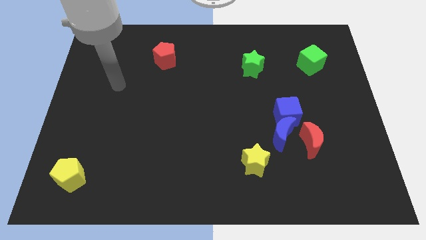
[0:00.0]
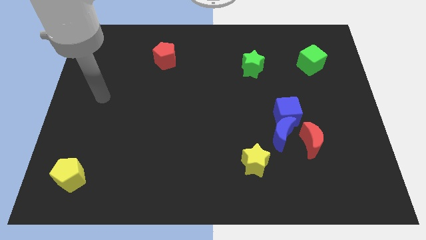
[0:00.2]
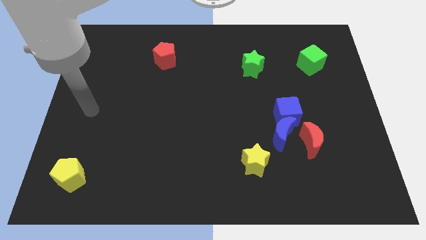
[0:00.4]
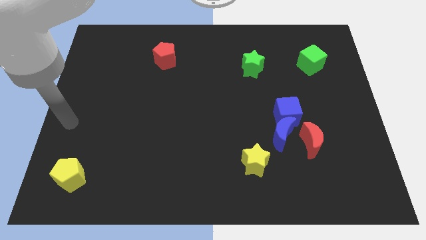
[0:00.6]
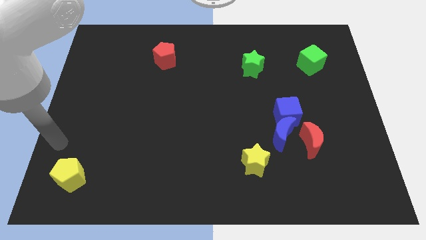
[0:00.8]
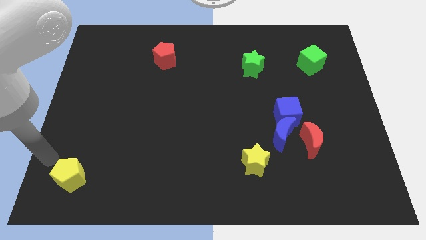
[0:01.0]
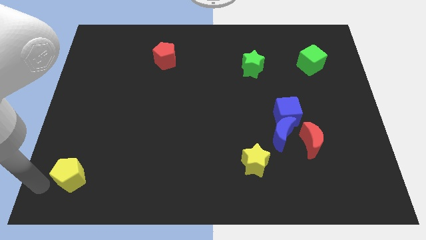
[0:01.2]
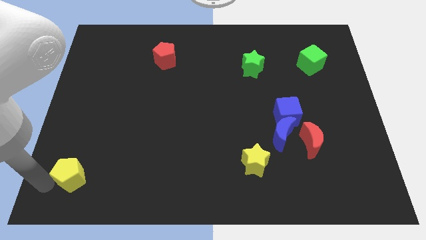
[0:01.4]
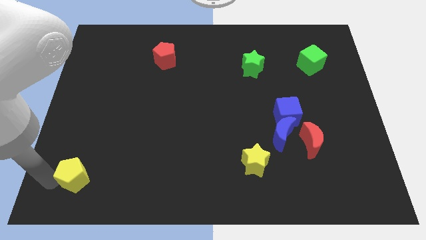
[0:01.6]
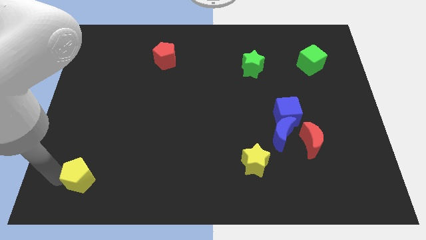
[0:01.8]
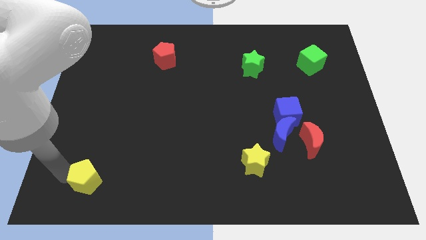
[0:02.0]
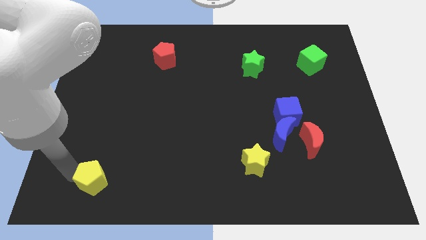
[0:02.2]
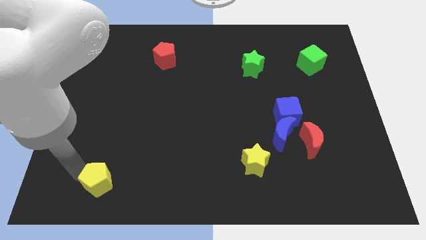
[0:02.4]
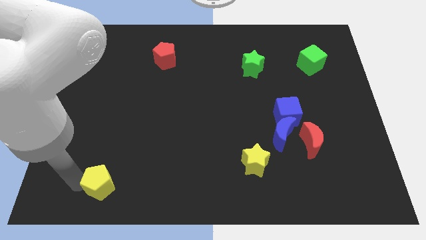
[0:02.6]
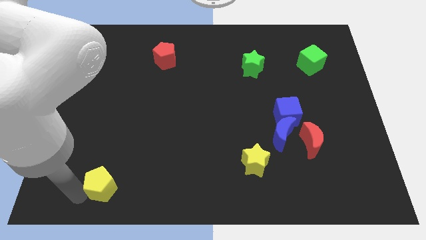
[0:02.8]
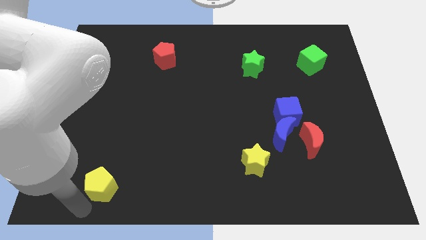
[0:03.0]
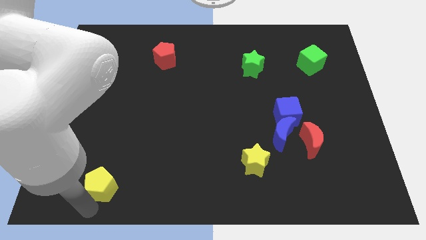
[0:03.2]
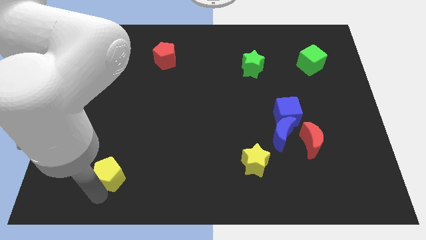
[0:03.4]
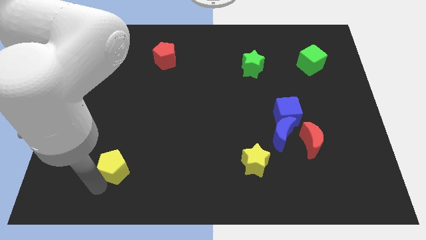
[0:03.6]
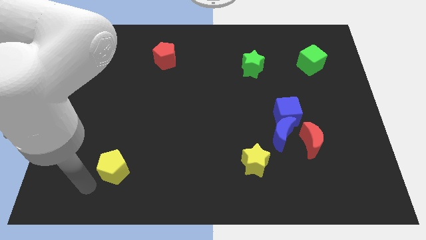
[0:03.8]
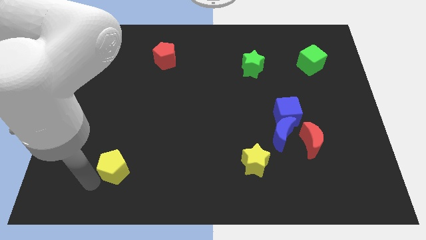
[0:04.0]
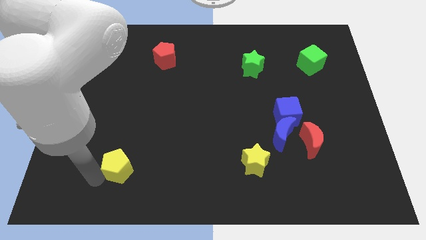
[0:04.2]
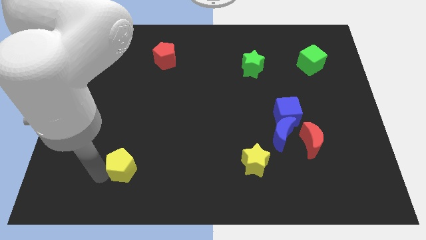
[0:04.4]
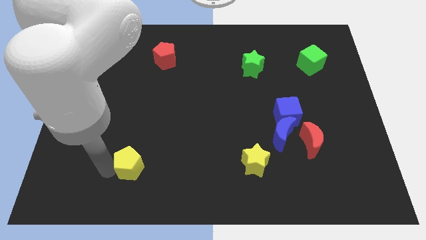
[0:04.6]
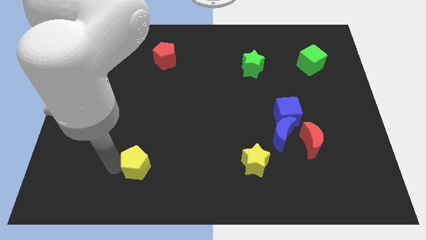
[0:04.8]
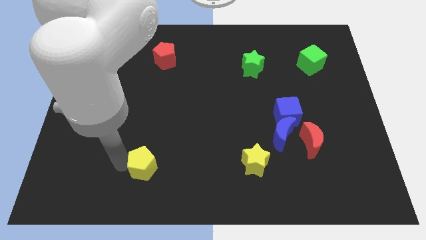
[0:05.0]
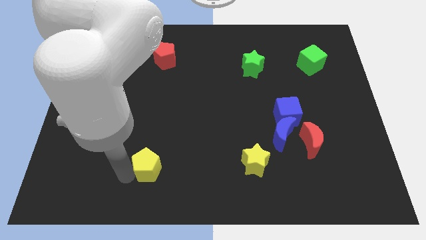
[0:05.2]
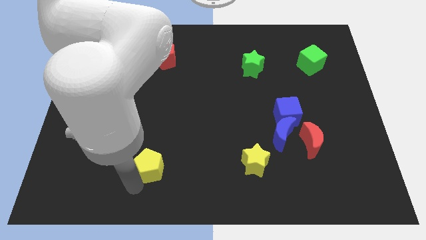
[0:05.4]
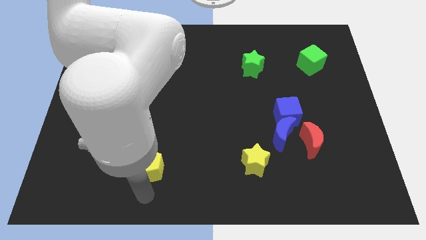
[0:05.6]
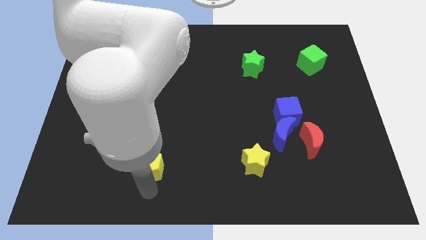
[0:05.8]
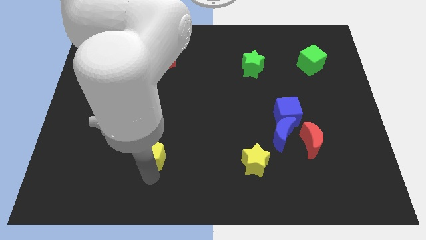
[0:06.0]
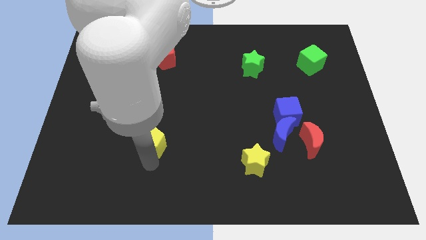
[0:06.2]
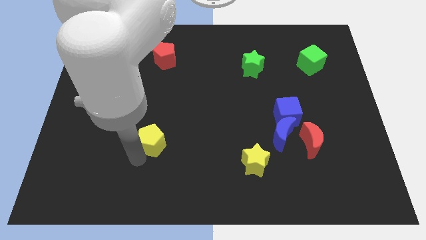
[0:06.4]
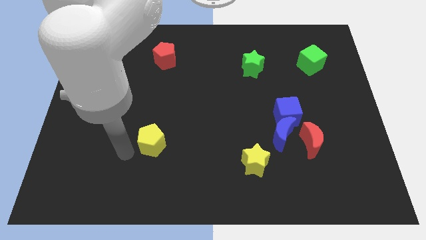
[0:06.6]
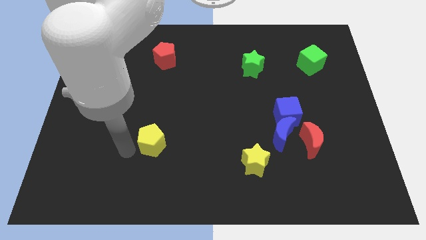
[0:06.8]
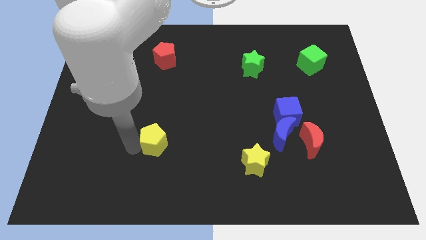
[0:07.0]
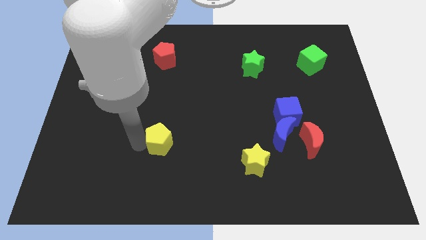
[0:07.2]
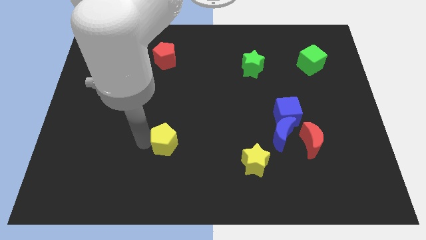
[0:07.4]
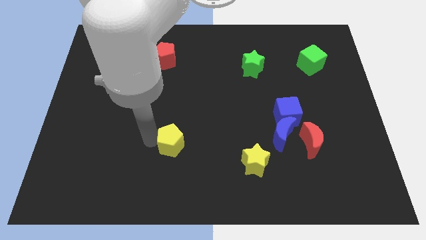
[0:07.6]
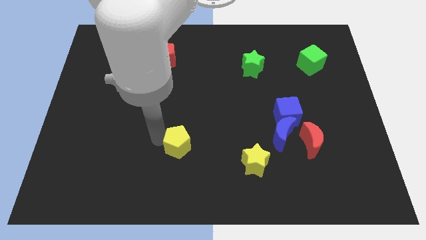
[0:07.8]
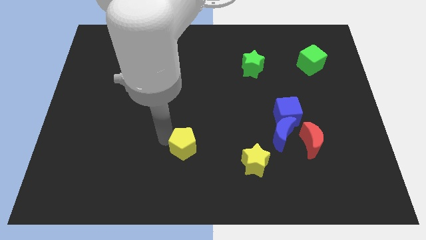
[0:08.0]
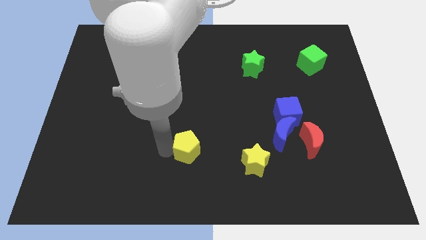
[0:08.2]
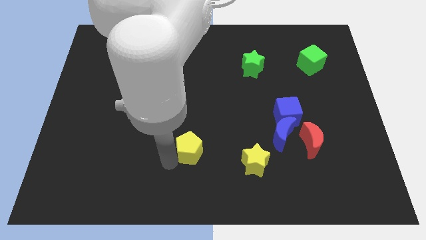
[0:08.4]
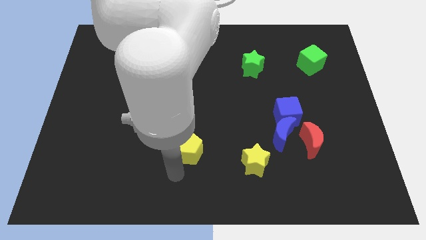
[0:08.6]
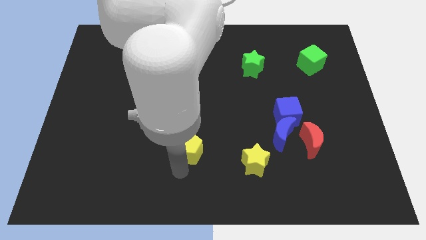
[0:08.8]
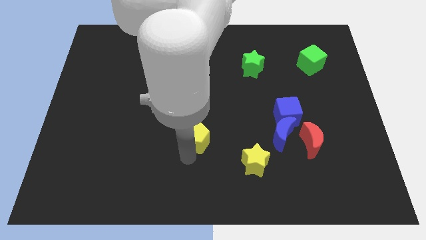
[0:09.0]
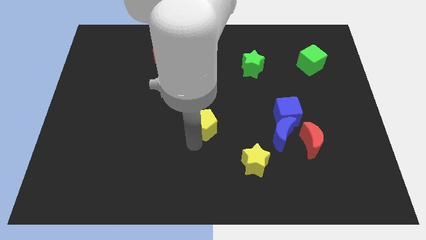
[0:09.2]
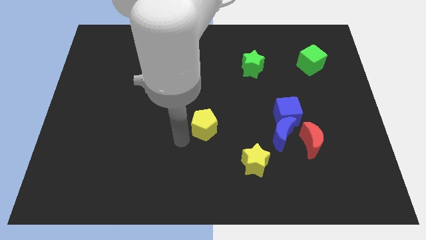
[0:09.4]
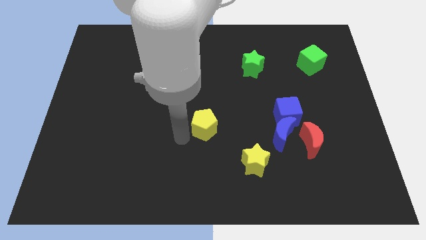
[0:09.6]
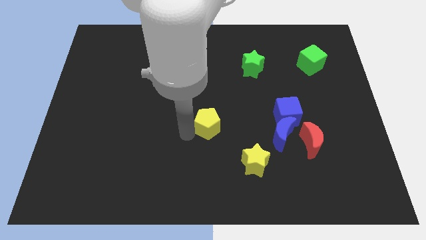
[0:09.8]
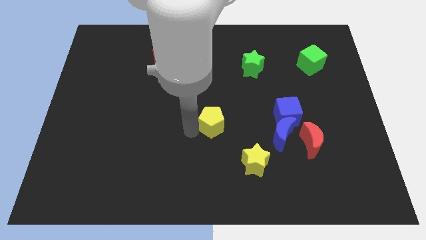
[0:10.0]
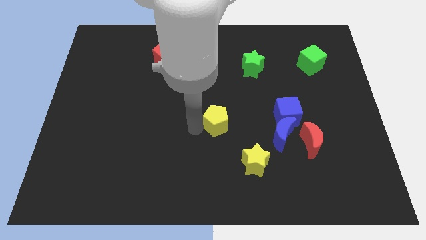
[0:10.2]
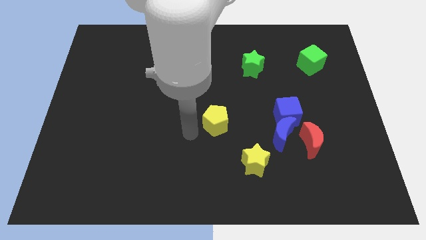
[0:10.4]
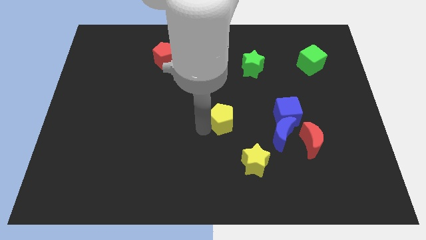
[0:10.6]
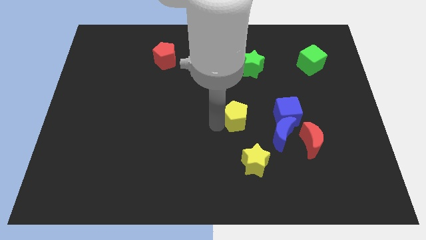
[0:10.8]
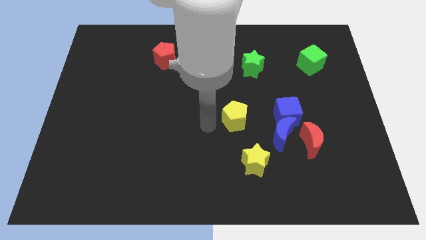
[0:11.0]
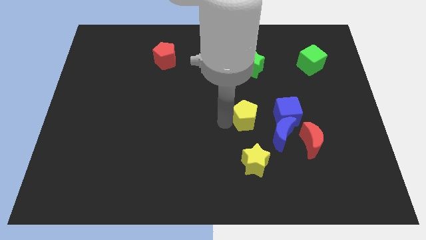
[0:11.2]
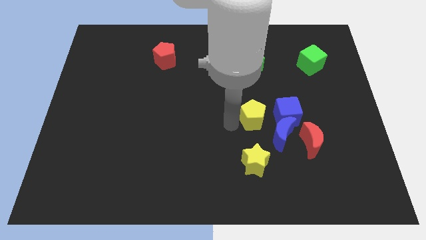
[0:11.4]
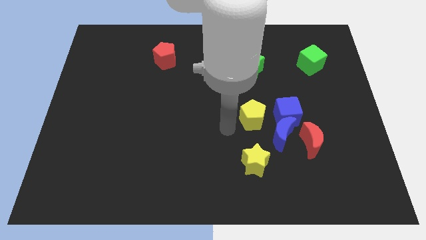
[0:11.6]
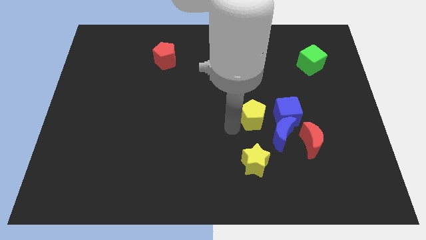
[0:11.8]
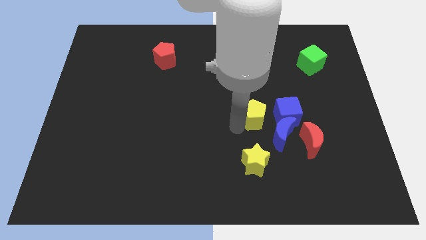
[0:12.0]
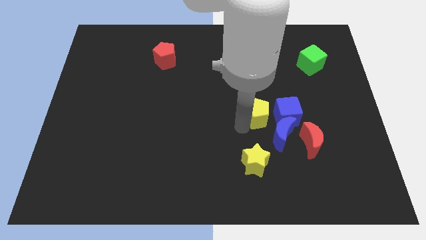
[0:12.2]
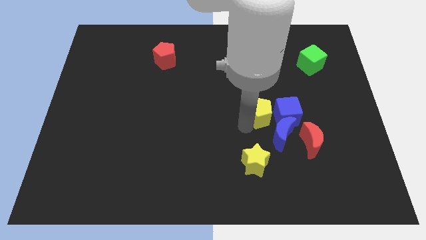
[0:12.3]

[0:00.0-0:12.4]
push the yellow pentagon to the blue cube

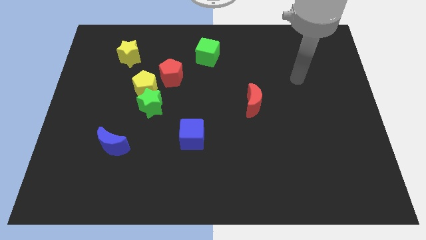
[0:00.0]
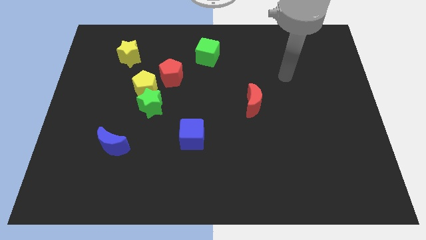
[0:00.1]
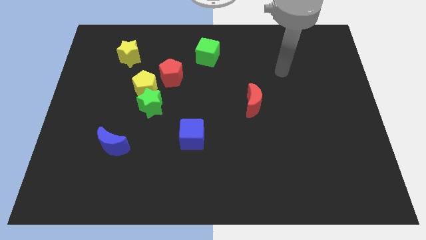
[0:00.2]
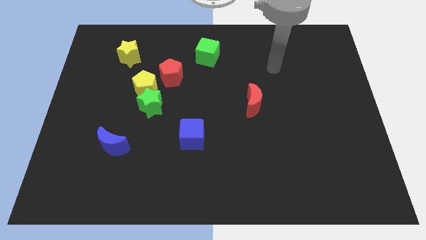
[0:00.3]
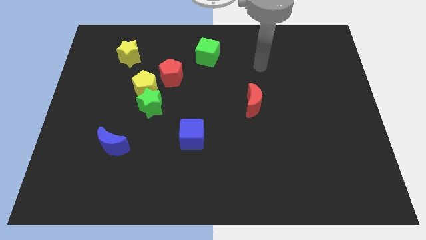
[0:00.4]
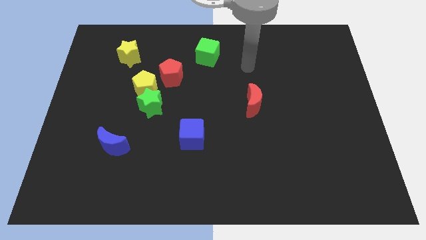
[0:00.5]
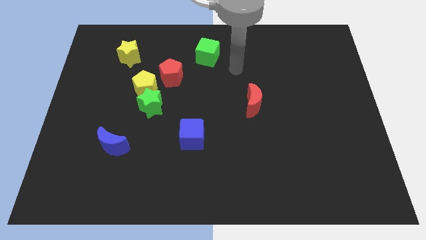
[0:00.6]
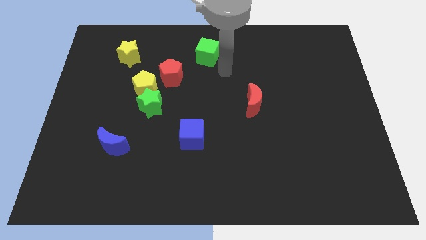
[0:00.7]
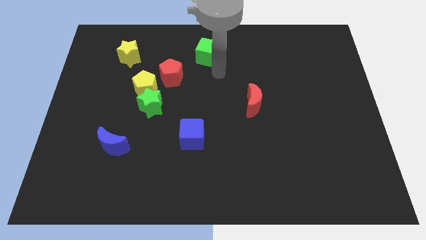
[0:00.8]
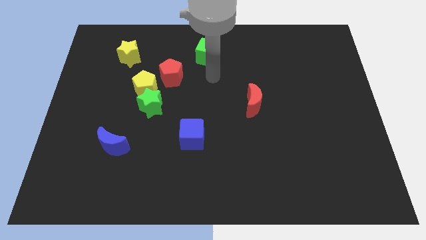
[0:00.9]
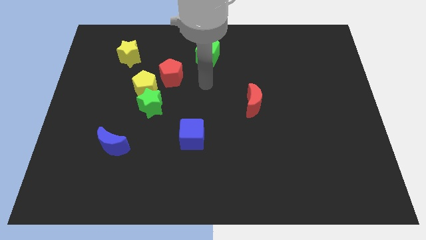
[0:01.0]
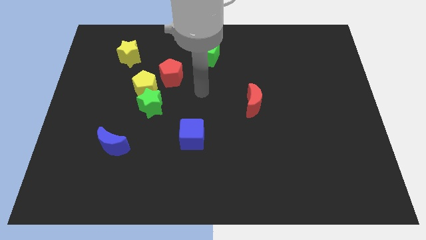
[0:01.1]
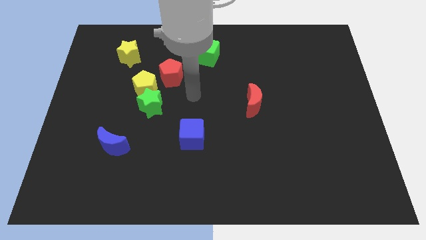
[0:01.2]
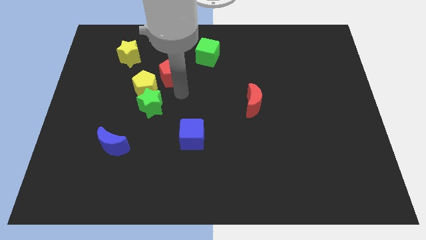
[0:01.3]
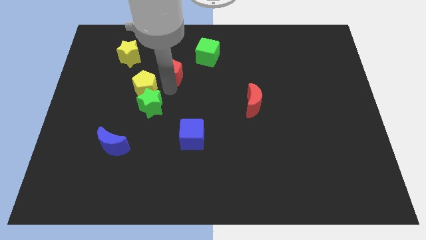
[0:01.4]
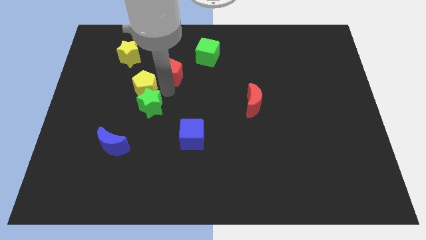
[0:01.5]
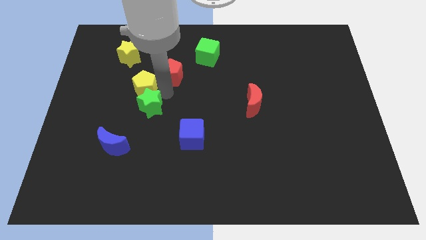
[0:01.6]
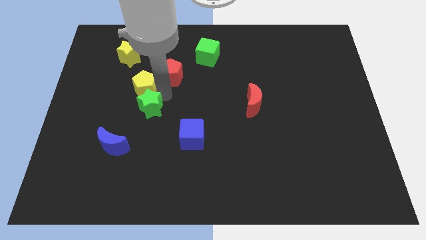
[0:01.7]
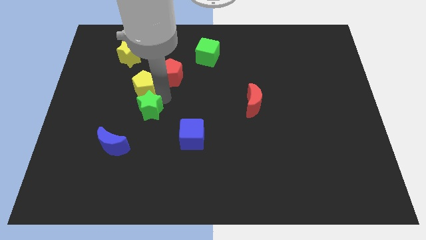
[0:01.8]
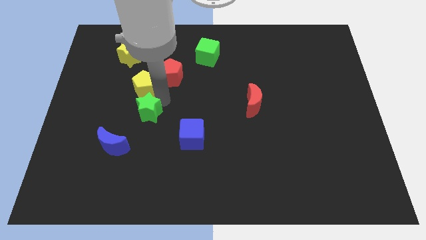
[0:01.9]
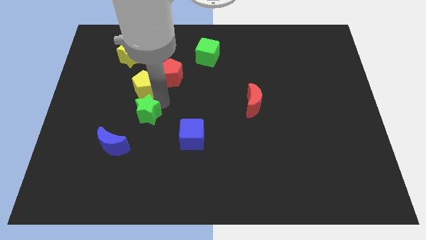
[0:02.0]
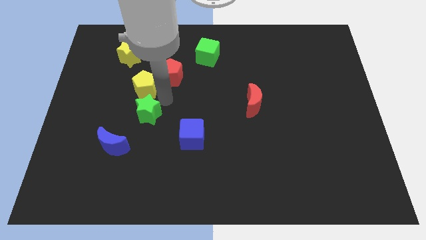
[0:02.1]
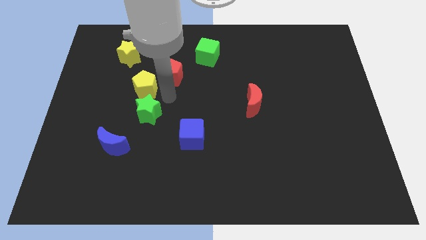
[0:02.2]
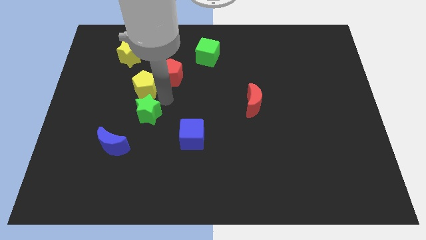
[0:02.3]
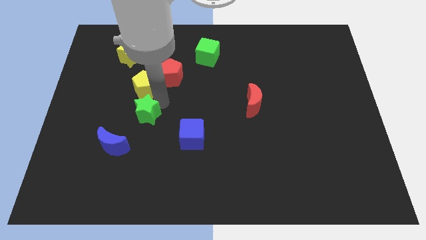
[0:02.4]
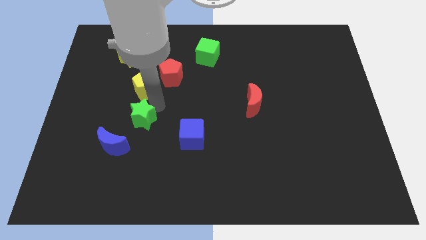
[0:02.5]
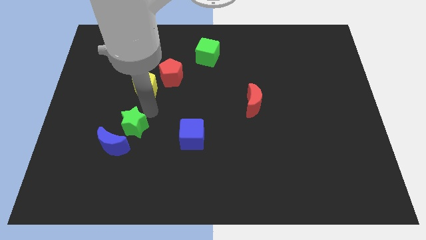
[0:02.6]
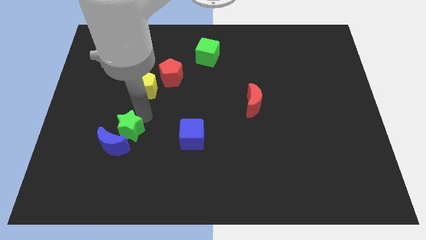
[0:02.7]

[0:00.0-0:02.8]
slide the green star to the blue moon
